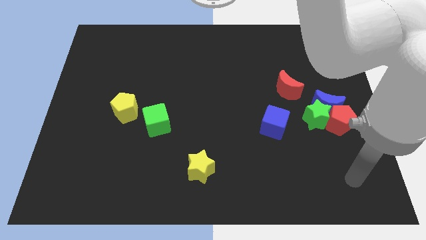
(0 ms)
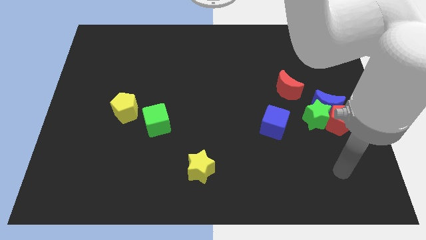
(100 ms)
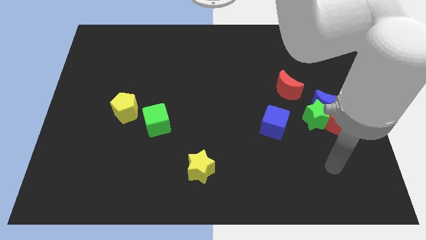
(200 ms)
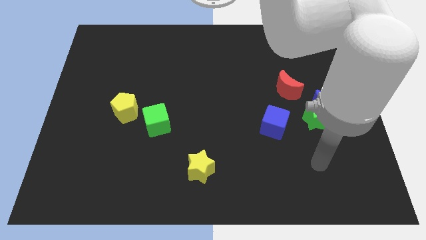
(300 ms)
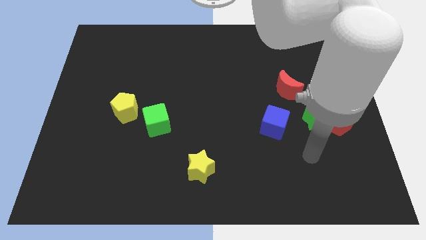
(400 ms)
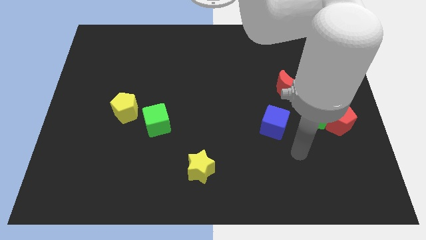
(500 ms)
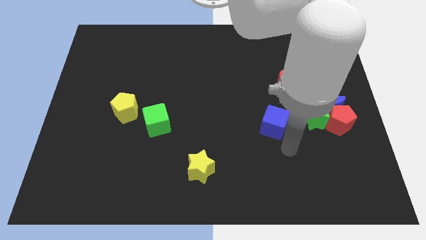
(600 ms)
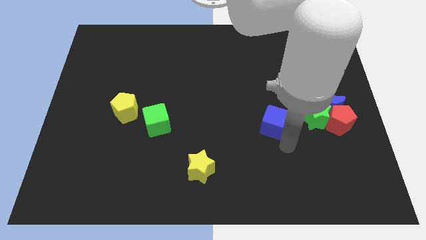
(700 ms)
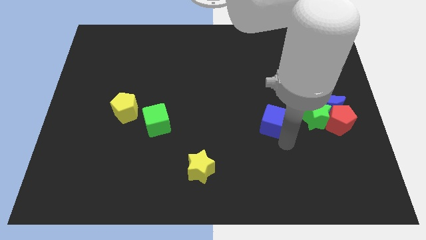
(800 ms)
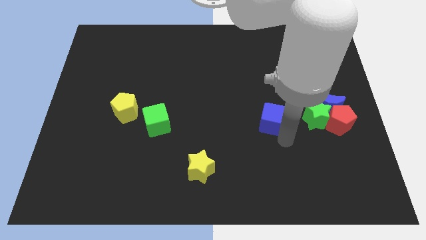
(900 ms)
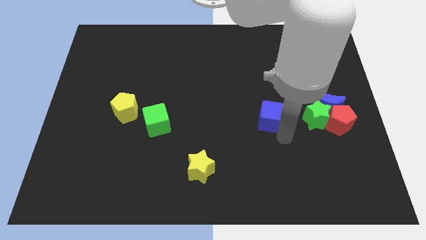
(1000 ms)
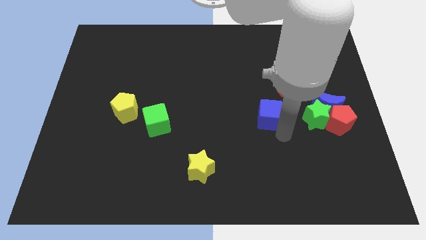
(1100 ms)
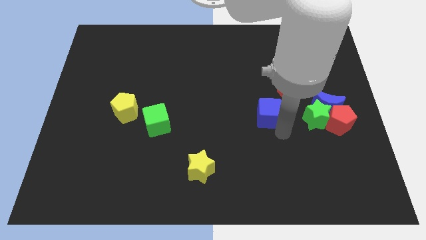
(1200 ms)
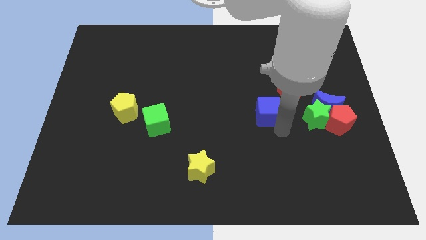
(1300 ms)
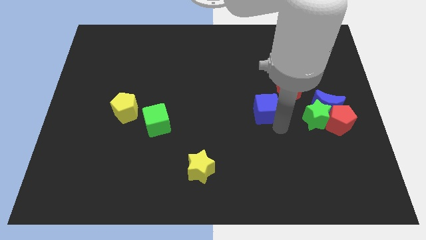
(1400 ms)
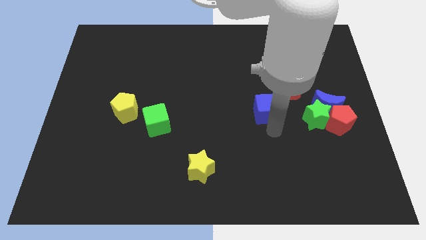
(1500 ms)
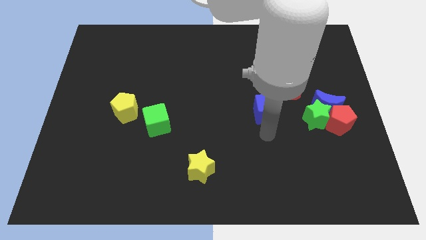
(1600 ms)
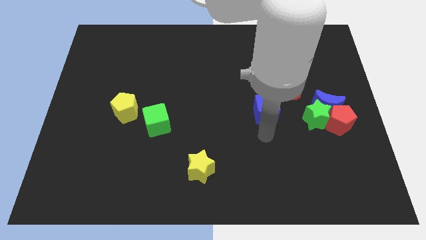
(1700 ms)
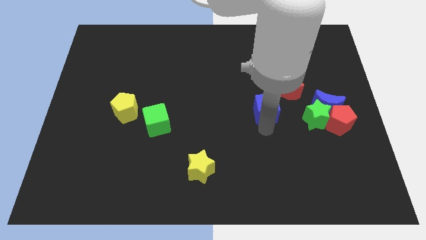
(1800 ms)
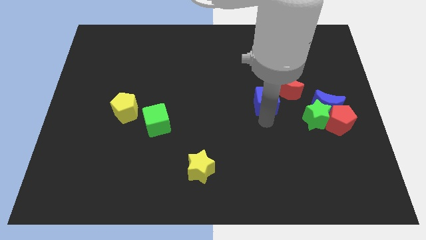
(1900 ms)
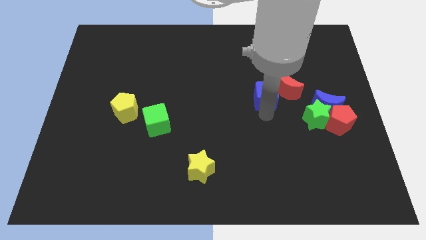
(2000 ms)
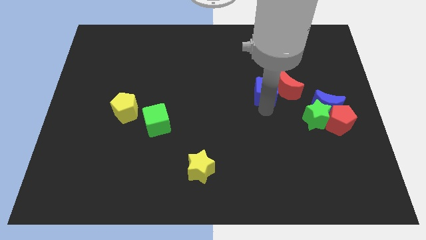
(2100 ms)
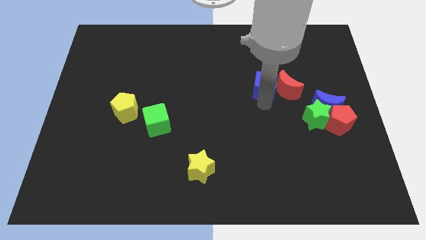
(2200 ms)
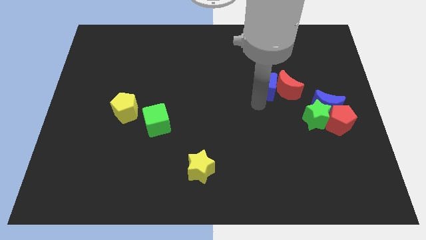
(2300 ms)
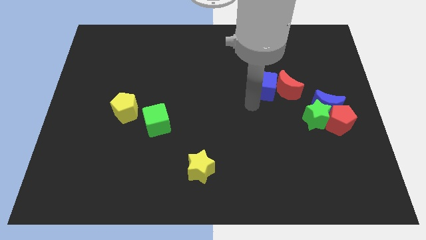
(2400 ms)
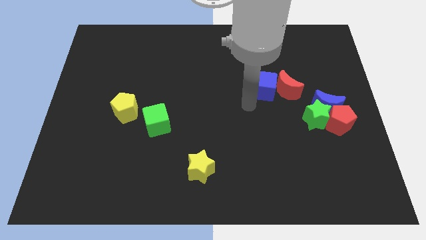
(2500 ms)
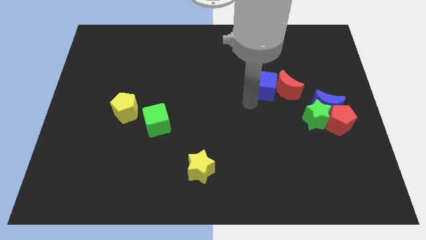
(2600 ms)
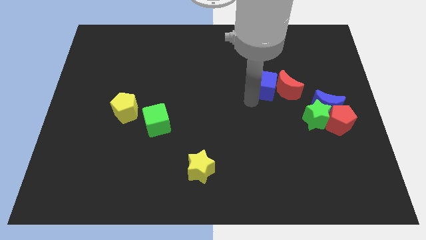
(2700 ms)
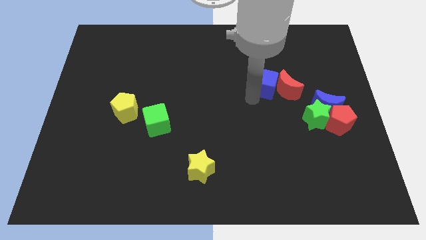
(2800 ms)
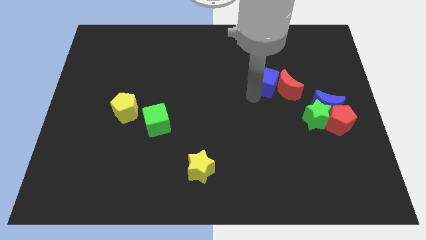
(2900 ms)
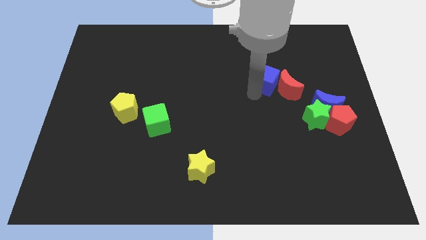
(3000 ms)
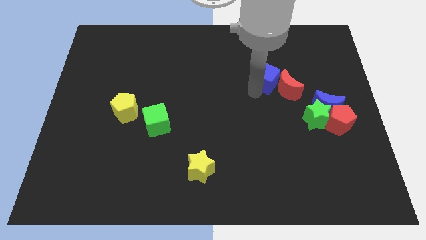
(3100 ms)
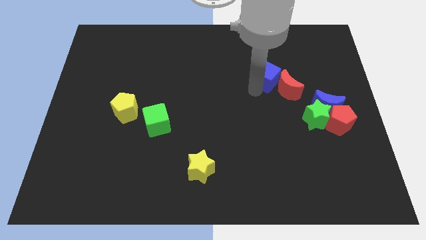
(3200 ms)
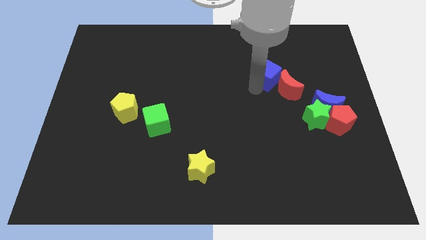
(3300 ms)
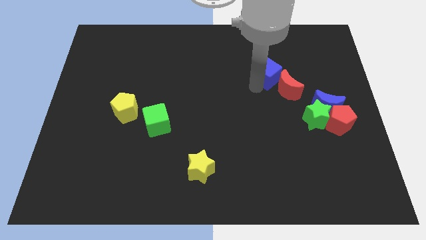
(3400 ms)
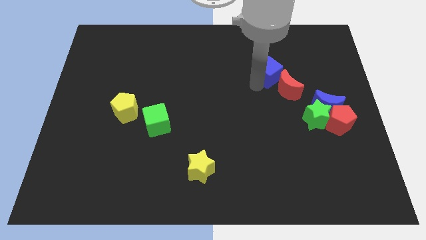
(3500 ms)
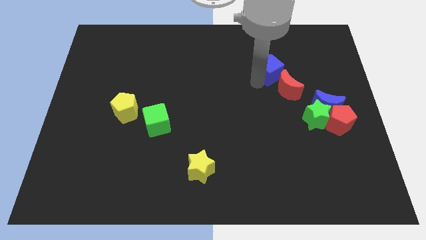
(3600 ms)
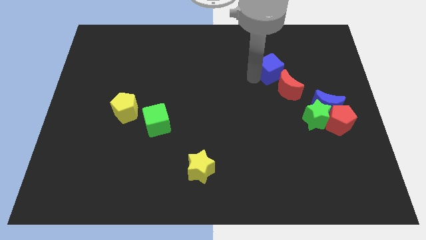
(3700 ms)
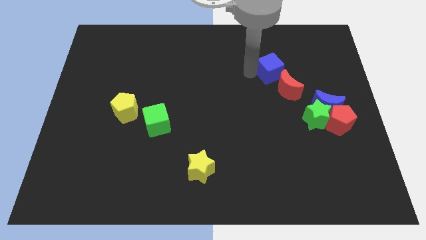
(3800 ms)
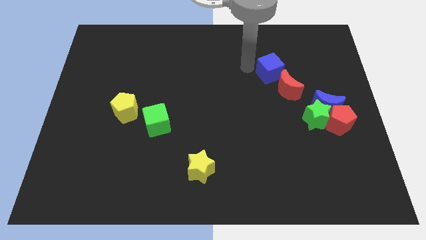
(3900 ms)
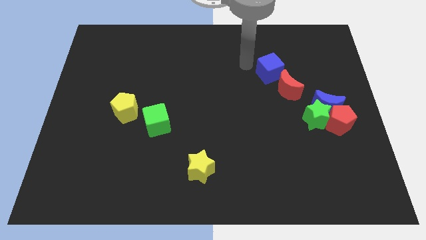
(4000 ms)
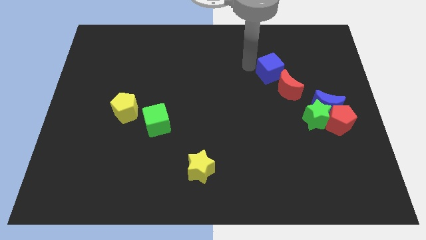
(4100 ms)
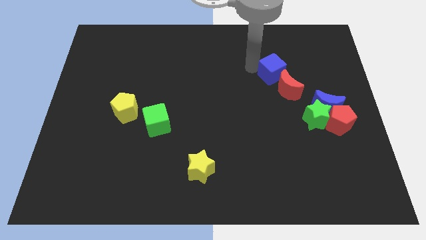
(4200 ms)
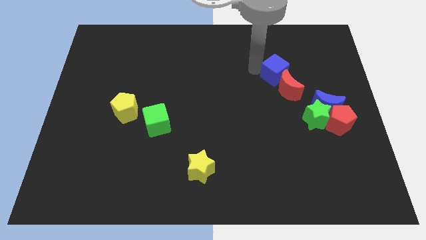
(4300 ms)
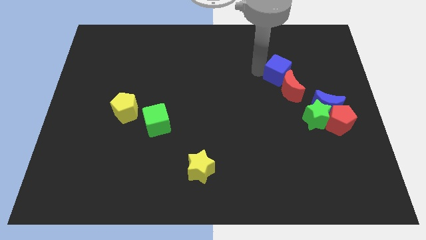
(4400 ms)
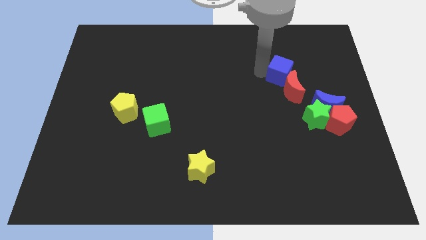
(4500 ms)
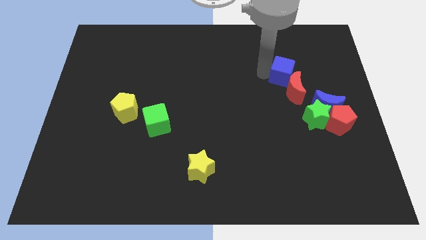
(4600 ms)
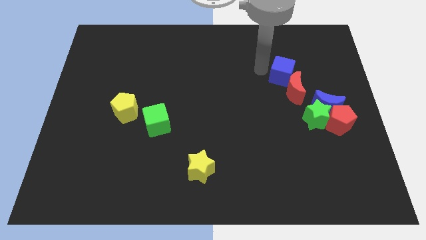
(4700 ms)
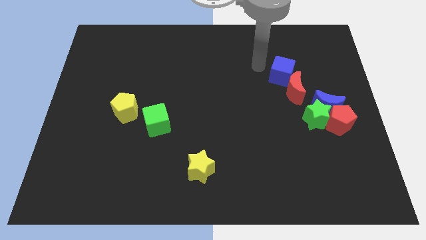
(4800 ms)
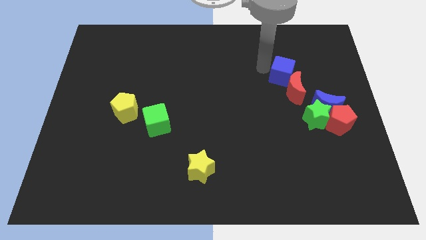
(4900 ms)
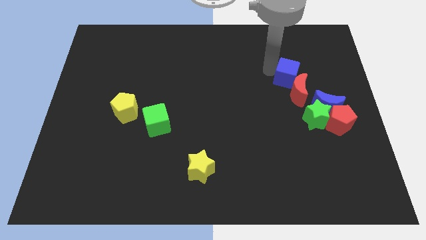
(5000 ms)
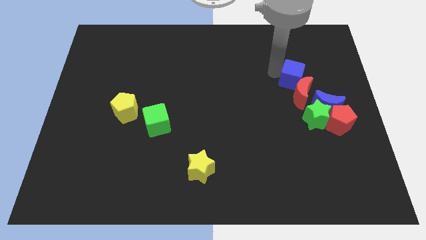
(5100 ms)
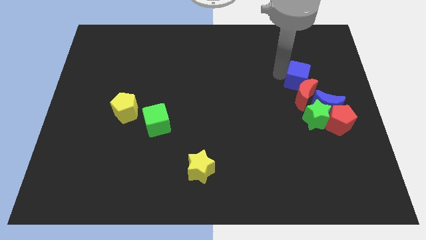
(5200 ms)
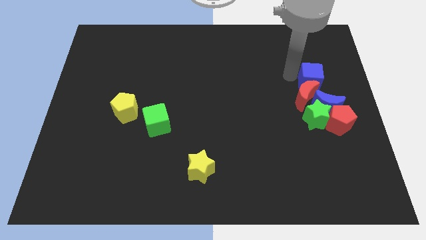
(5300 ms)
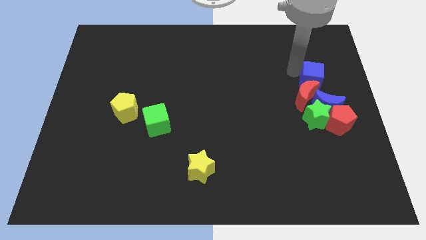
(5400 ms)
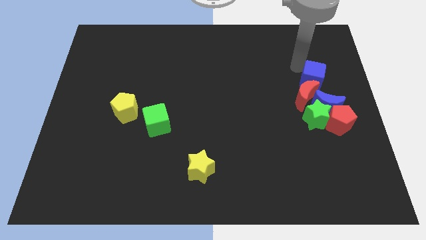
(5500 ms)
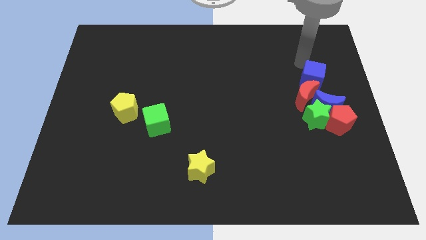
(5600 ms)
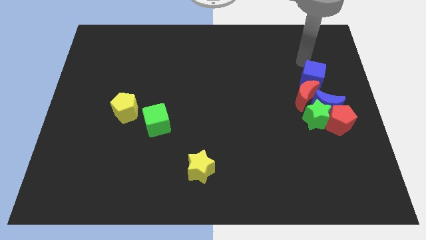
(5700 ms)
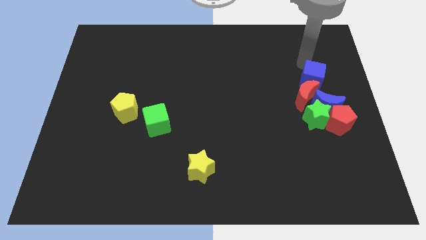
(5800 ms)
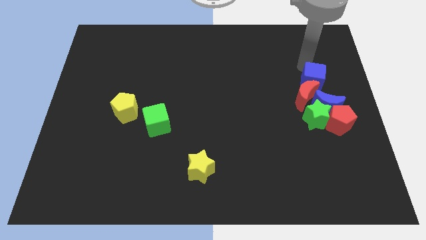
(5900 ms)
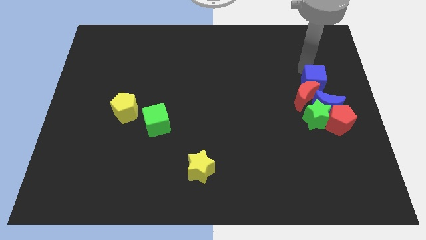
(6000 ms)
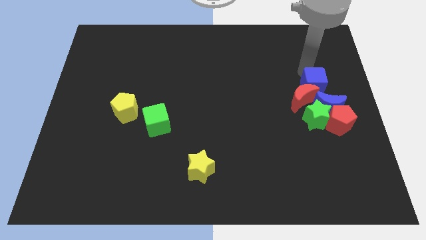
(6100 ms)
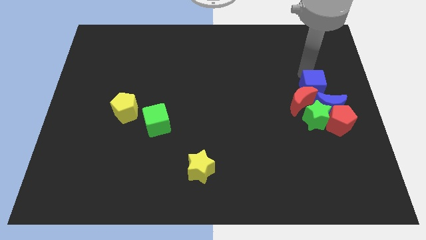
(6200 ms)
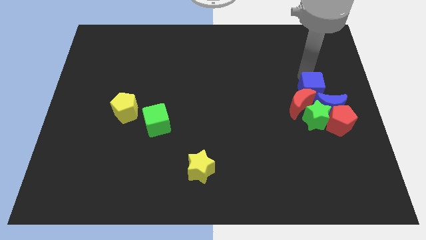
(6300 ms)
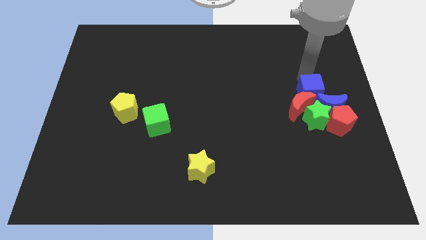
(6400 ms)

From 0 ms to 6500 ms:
slide the blue cube to the blue moon
